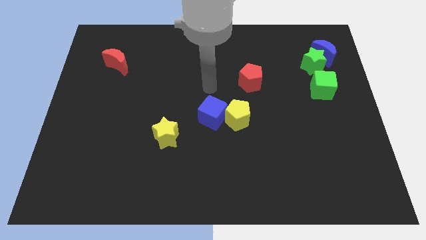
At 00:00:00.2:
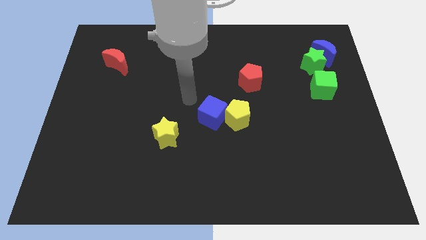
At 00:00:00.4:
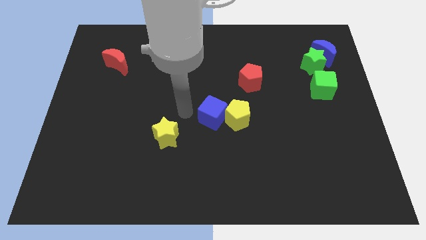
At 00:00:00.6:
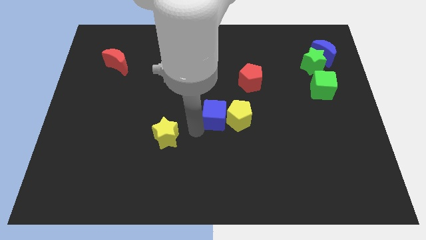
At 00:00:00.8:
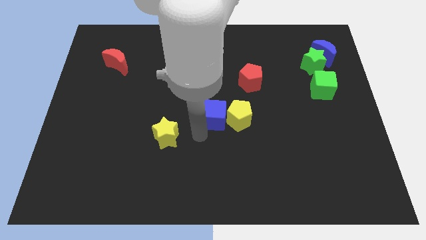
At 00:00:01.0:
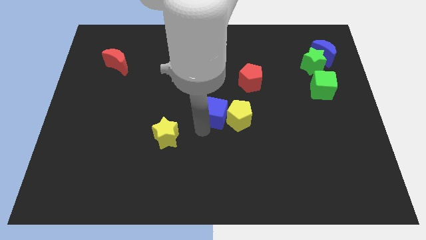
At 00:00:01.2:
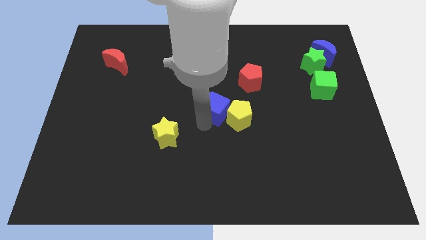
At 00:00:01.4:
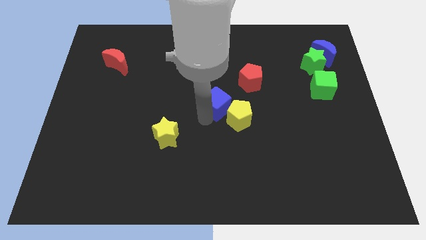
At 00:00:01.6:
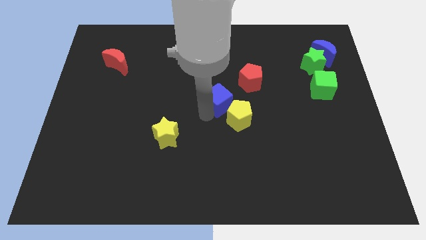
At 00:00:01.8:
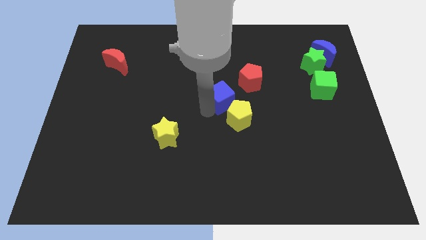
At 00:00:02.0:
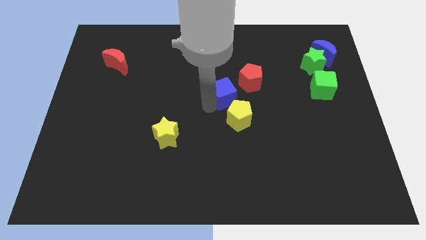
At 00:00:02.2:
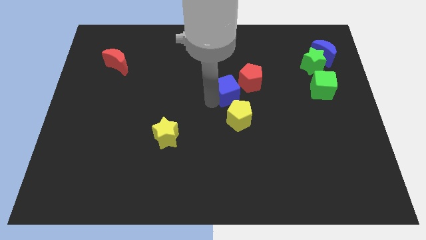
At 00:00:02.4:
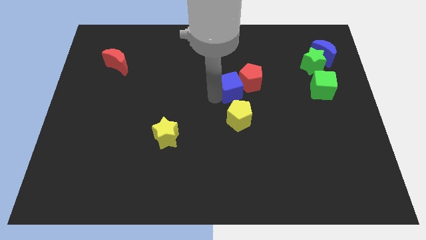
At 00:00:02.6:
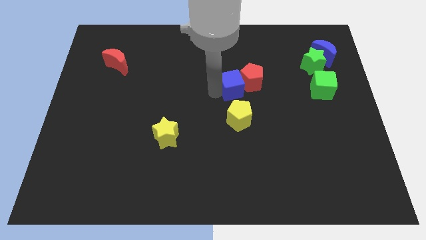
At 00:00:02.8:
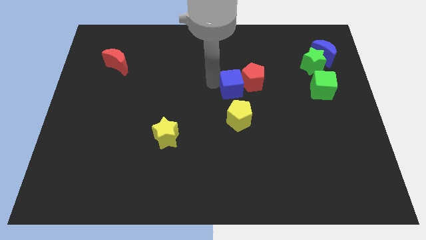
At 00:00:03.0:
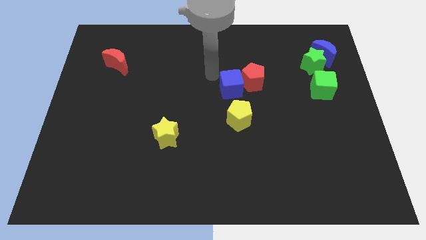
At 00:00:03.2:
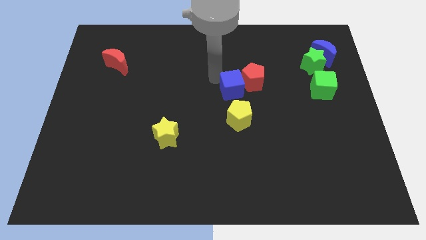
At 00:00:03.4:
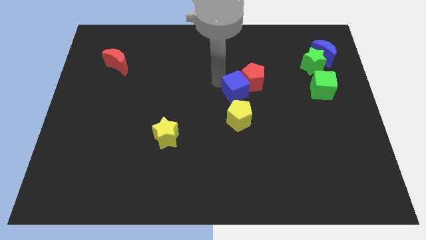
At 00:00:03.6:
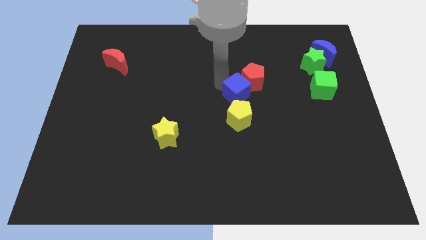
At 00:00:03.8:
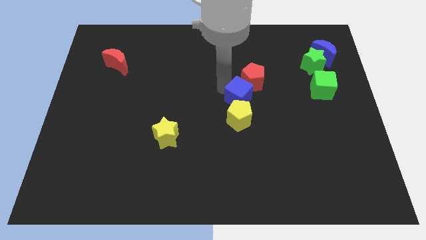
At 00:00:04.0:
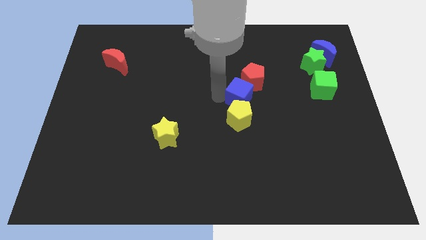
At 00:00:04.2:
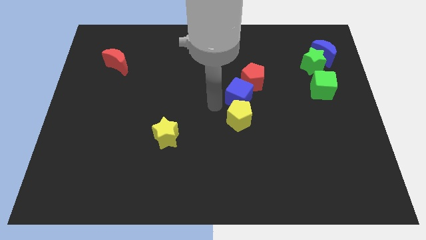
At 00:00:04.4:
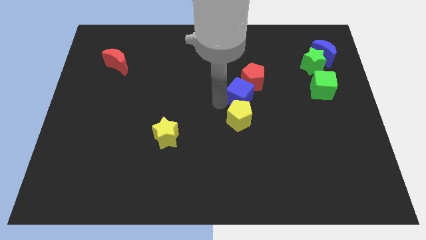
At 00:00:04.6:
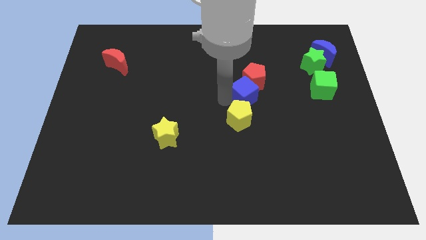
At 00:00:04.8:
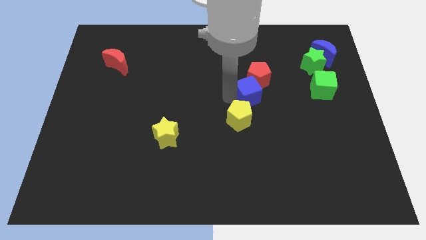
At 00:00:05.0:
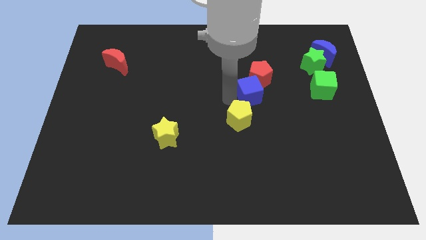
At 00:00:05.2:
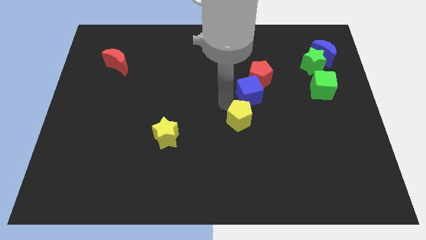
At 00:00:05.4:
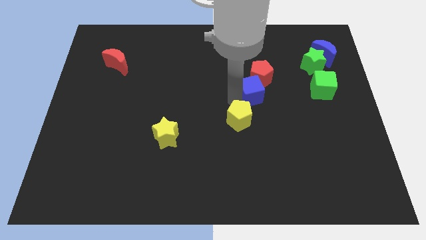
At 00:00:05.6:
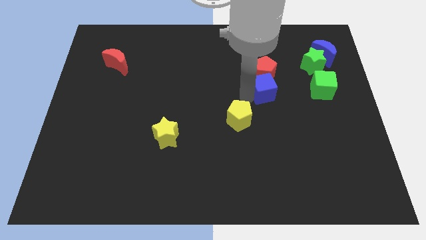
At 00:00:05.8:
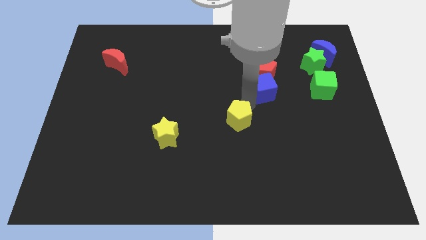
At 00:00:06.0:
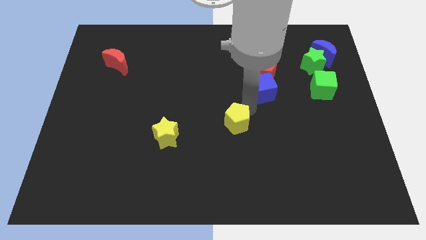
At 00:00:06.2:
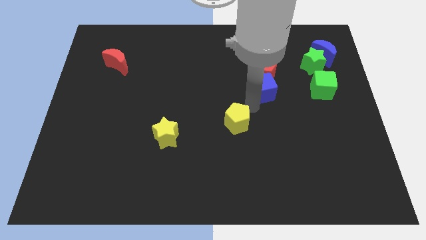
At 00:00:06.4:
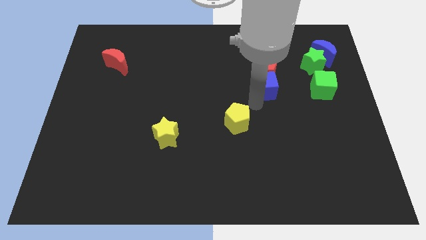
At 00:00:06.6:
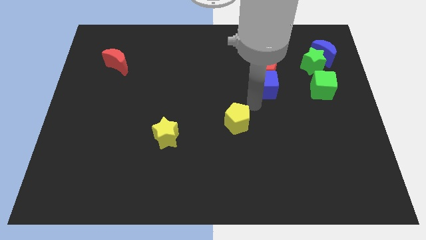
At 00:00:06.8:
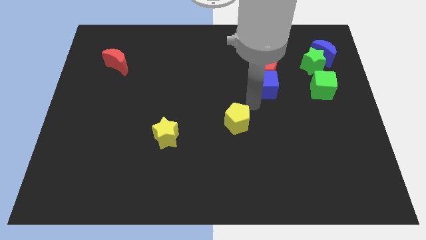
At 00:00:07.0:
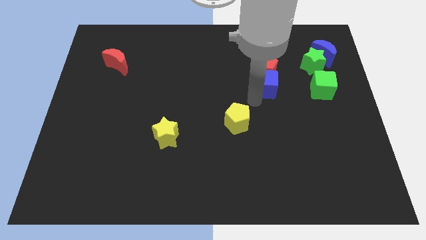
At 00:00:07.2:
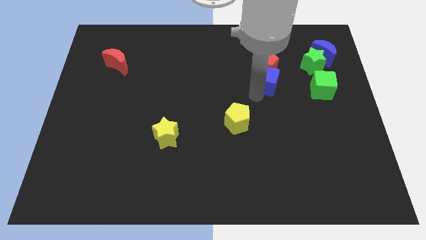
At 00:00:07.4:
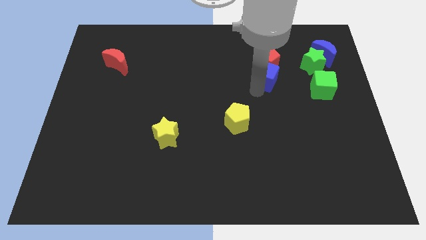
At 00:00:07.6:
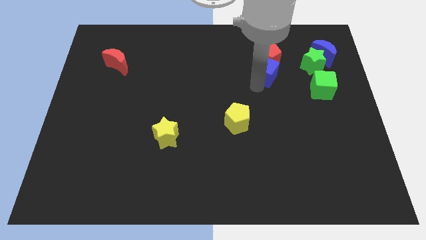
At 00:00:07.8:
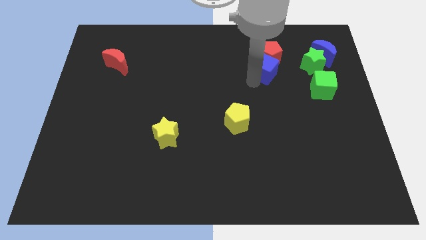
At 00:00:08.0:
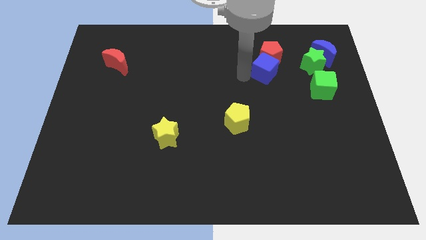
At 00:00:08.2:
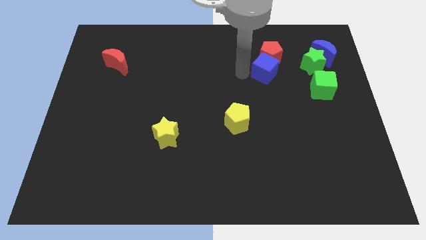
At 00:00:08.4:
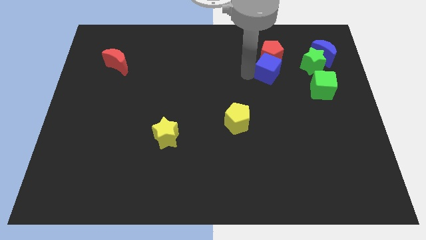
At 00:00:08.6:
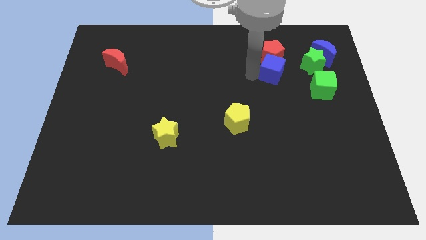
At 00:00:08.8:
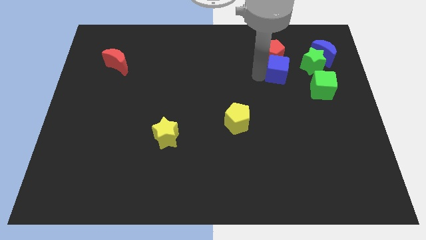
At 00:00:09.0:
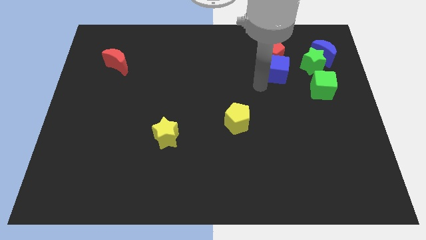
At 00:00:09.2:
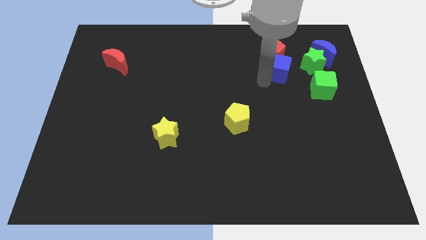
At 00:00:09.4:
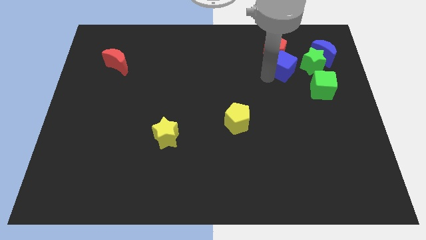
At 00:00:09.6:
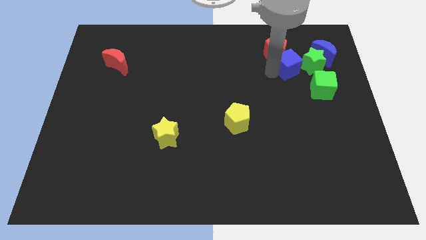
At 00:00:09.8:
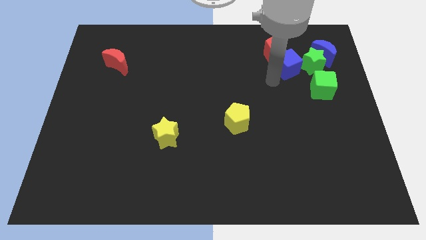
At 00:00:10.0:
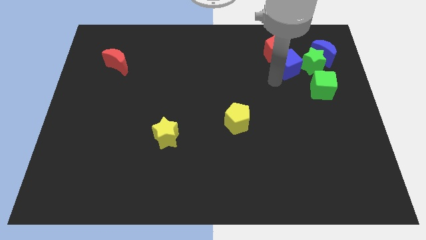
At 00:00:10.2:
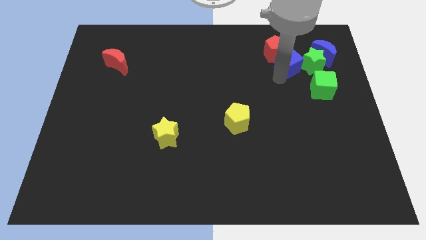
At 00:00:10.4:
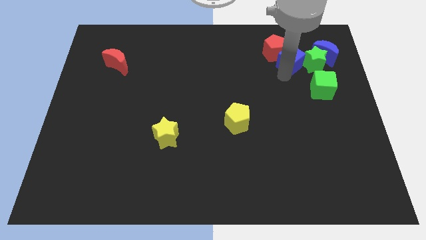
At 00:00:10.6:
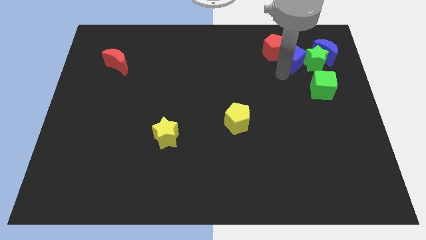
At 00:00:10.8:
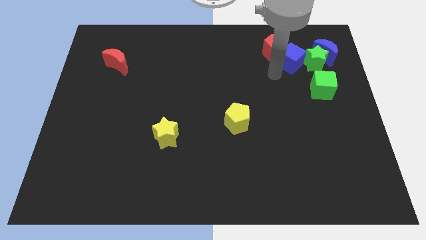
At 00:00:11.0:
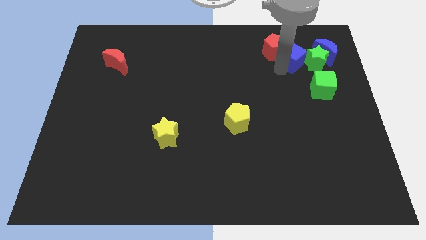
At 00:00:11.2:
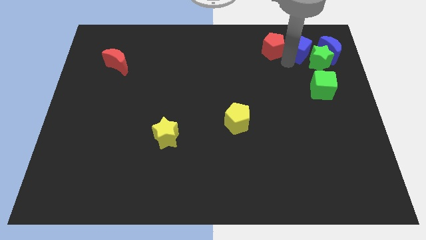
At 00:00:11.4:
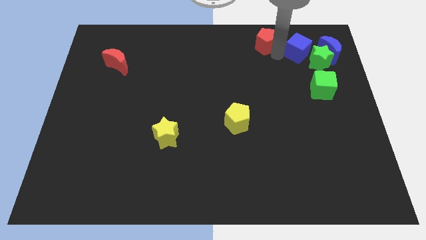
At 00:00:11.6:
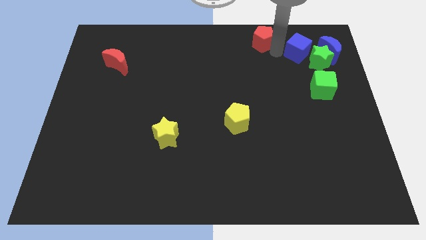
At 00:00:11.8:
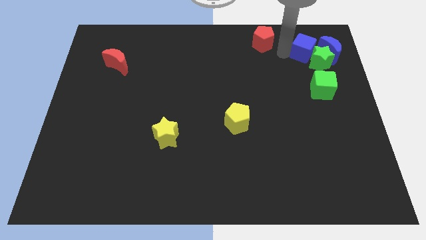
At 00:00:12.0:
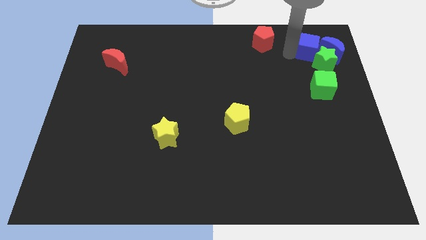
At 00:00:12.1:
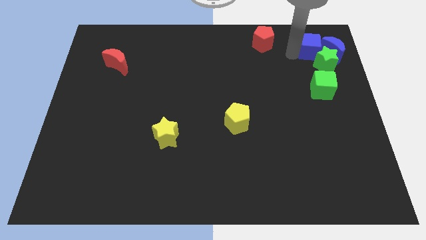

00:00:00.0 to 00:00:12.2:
put the blue cube close to the blue moon

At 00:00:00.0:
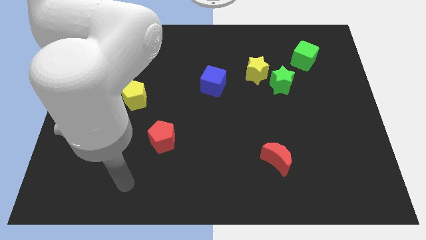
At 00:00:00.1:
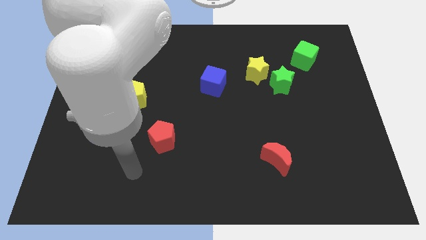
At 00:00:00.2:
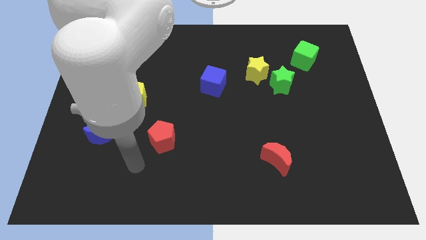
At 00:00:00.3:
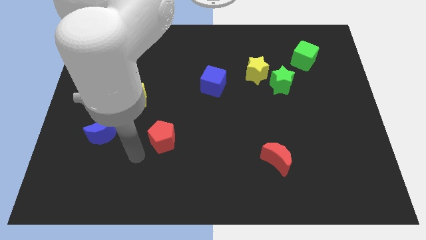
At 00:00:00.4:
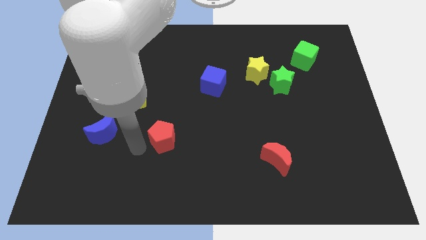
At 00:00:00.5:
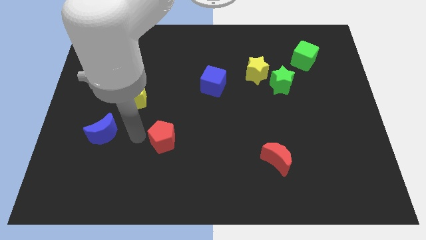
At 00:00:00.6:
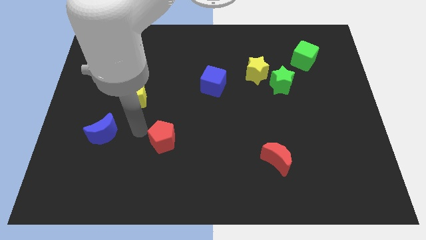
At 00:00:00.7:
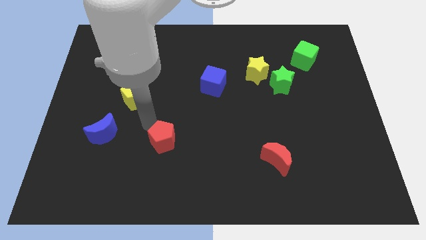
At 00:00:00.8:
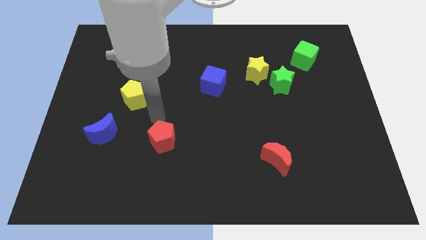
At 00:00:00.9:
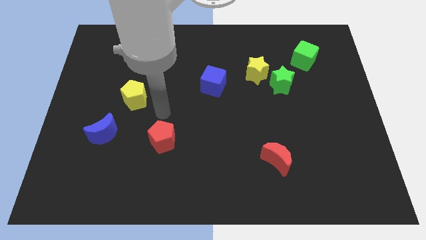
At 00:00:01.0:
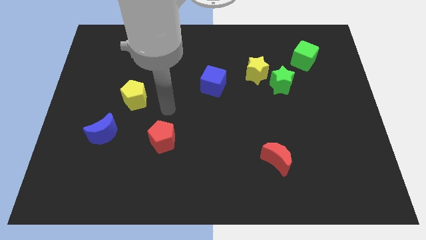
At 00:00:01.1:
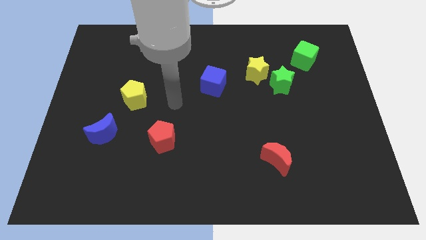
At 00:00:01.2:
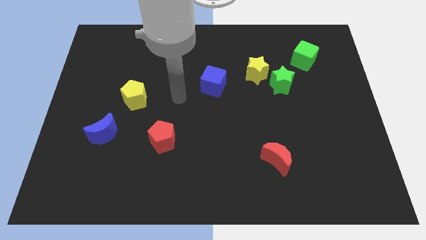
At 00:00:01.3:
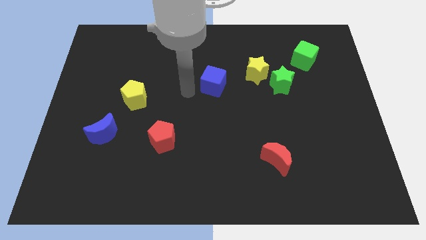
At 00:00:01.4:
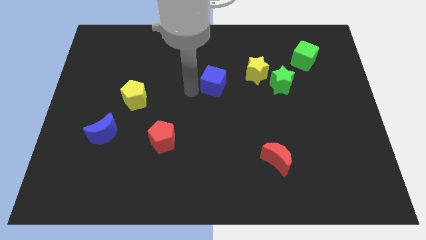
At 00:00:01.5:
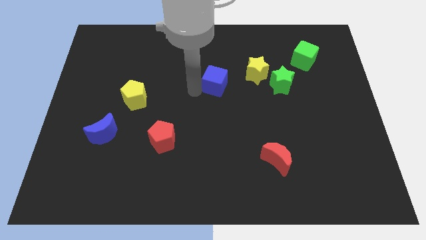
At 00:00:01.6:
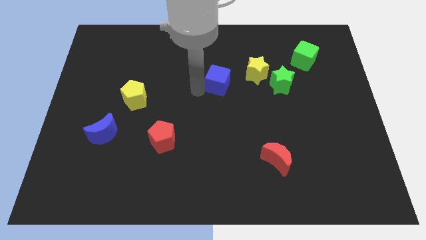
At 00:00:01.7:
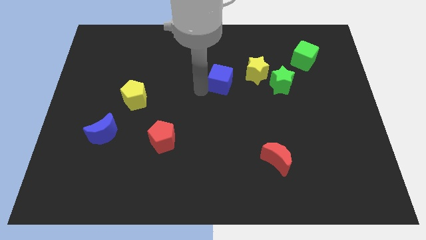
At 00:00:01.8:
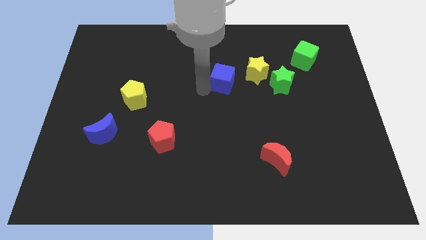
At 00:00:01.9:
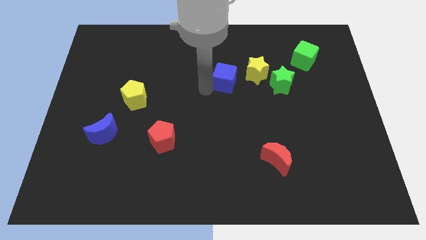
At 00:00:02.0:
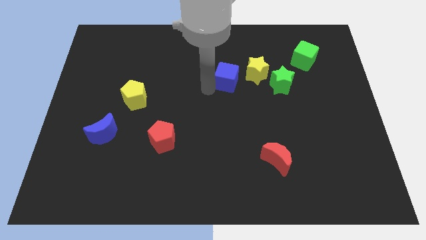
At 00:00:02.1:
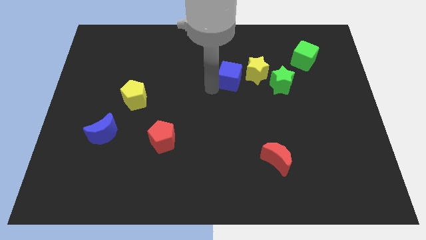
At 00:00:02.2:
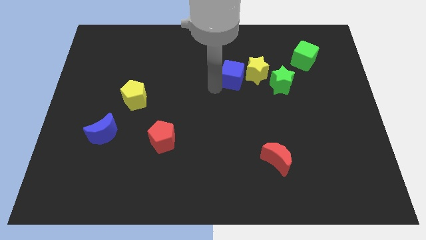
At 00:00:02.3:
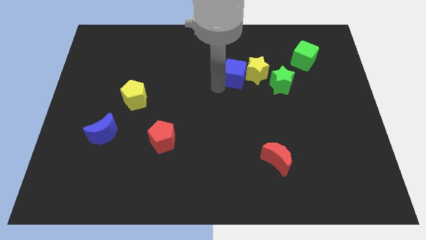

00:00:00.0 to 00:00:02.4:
push the blue cube towards the yellow star
